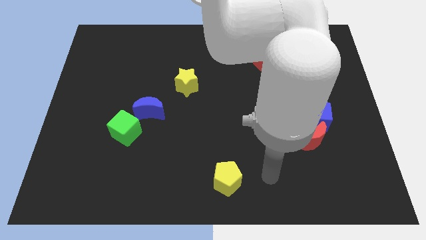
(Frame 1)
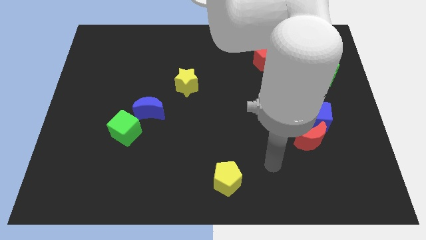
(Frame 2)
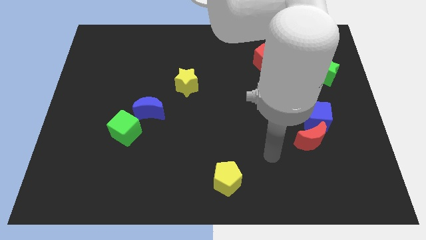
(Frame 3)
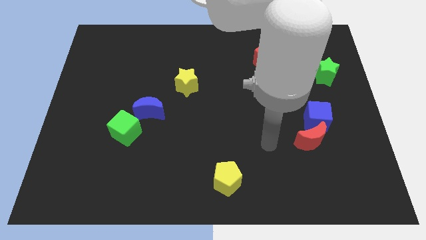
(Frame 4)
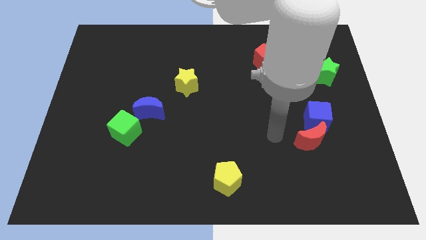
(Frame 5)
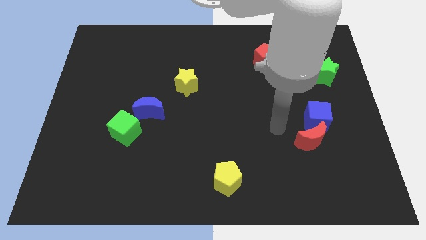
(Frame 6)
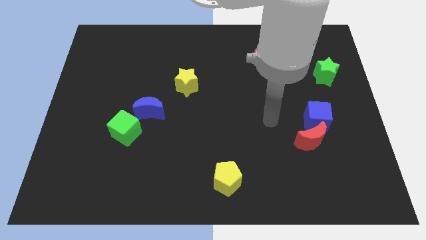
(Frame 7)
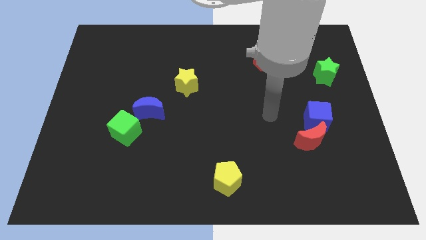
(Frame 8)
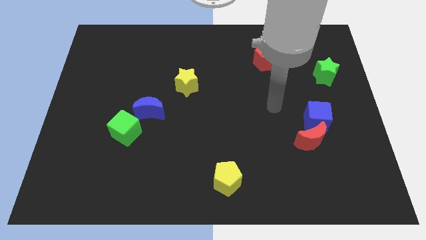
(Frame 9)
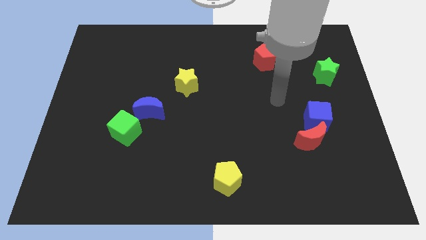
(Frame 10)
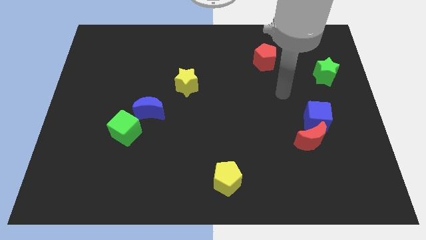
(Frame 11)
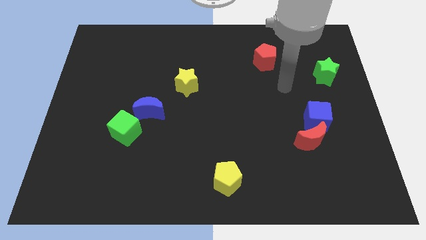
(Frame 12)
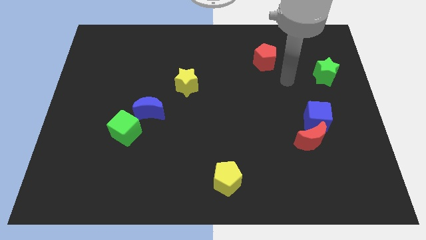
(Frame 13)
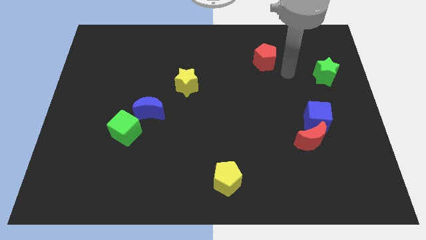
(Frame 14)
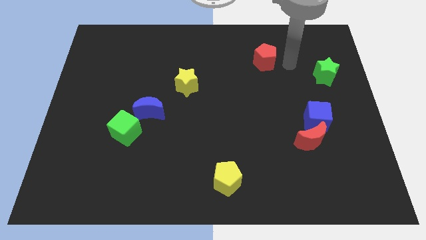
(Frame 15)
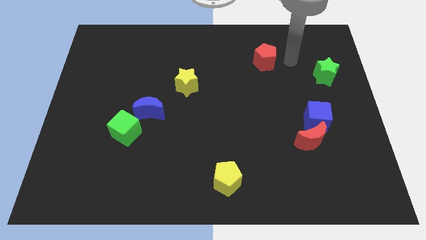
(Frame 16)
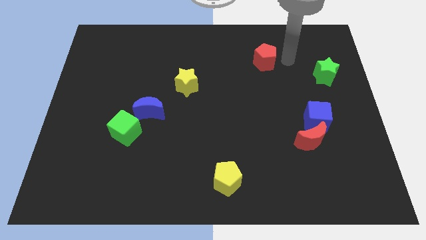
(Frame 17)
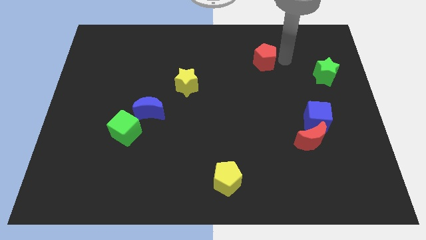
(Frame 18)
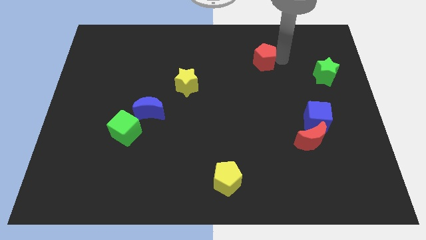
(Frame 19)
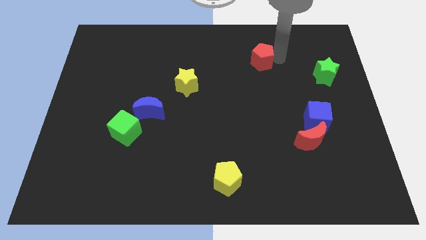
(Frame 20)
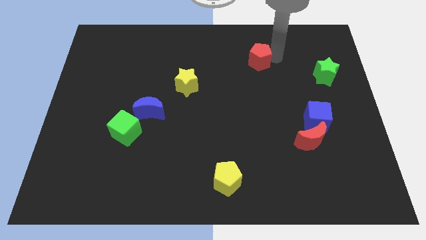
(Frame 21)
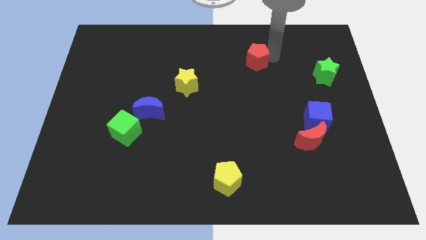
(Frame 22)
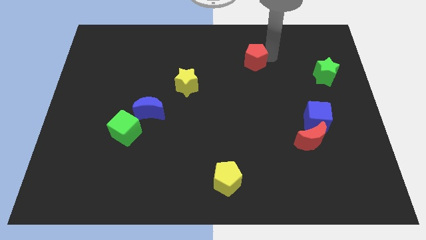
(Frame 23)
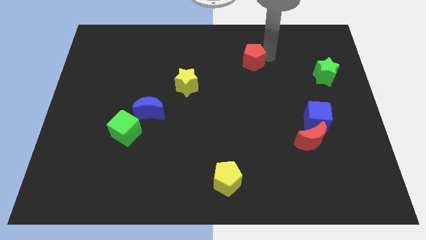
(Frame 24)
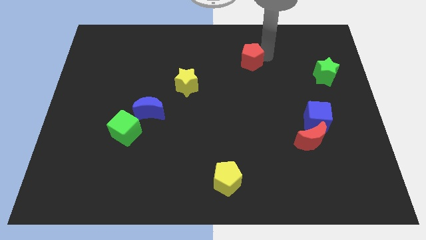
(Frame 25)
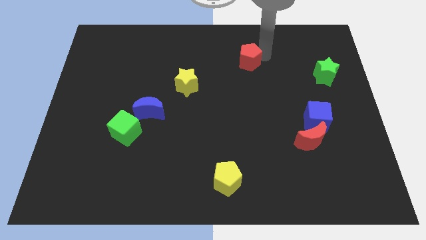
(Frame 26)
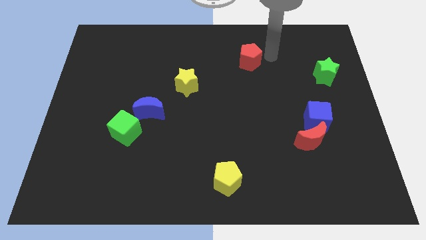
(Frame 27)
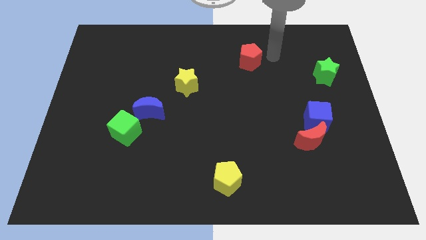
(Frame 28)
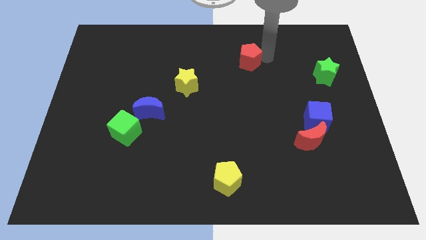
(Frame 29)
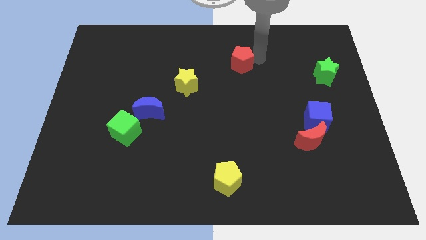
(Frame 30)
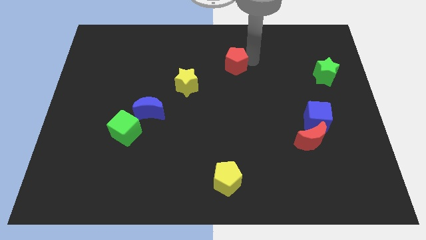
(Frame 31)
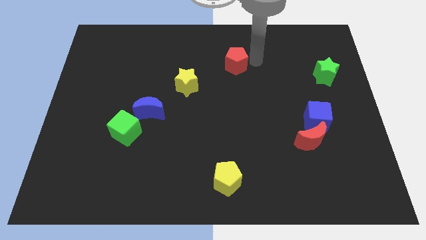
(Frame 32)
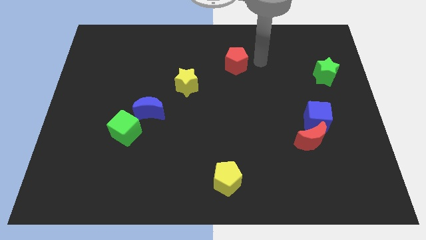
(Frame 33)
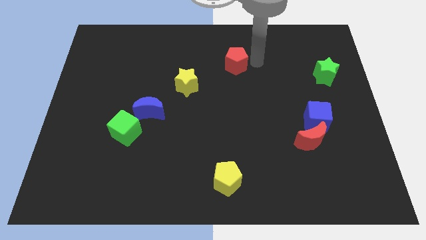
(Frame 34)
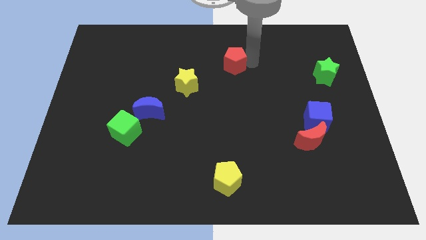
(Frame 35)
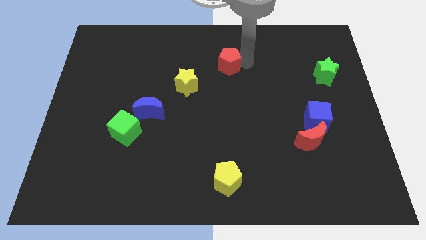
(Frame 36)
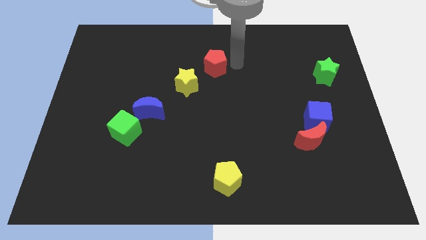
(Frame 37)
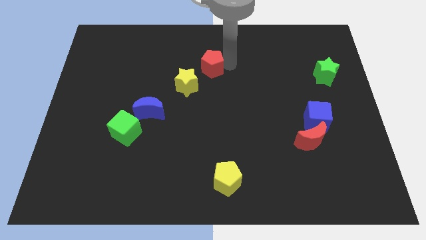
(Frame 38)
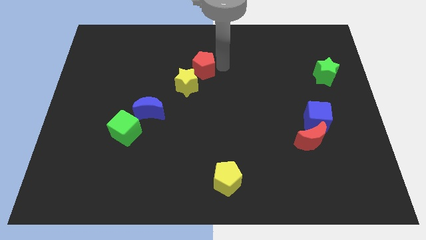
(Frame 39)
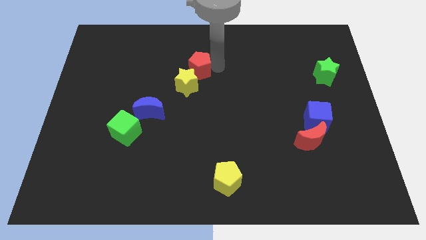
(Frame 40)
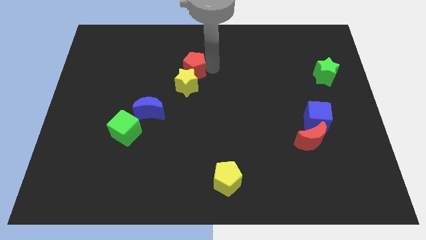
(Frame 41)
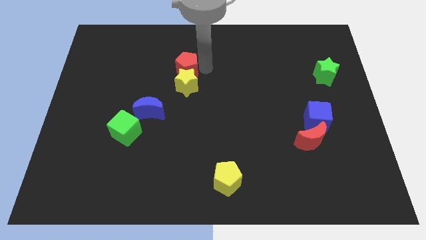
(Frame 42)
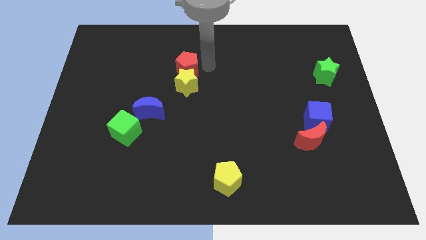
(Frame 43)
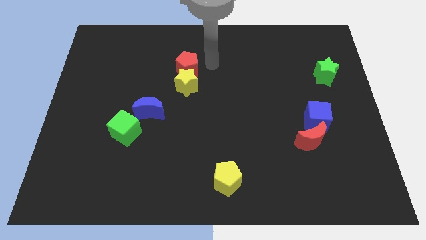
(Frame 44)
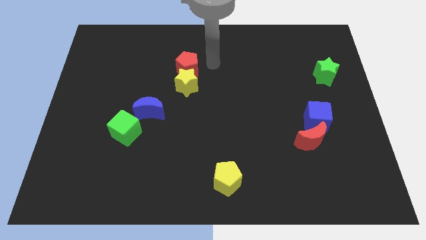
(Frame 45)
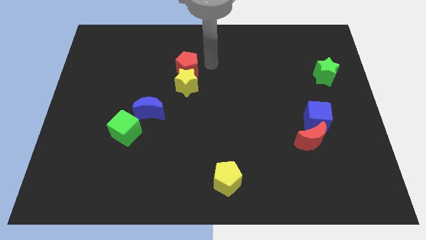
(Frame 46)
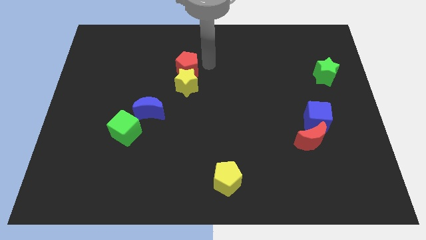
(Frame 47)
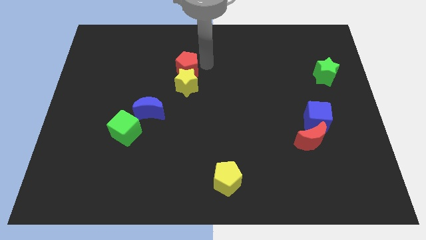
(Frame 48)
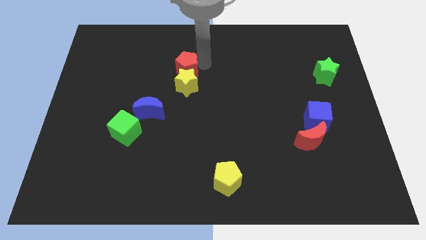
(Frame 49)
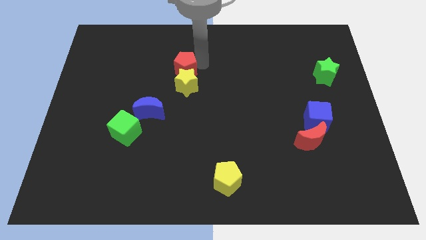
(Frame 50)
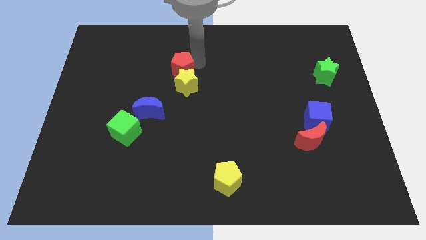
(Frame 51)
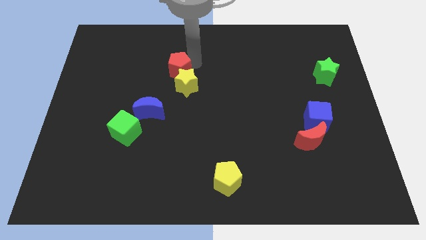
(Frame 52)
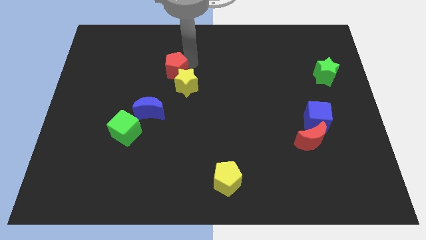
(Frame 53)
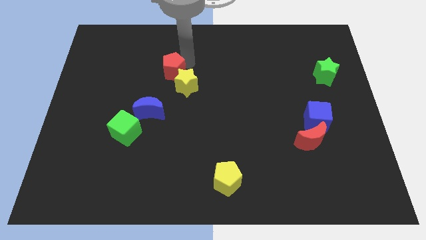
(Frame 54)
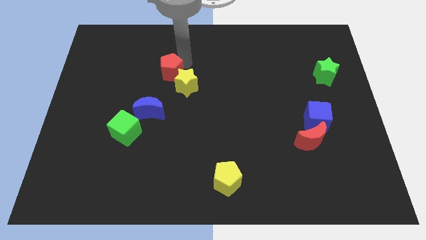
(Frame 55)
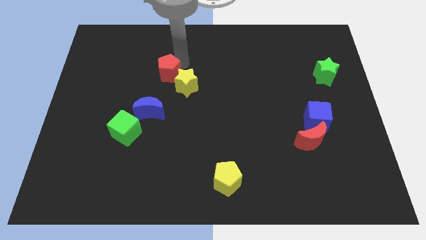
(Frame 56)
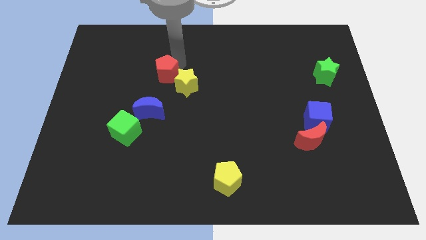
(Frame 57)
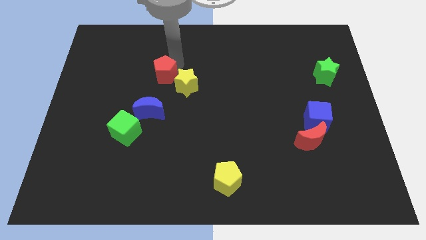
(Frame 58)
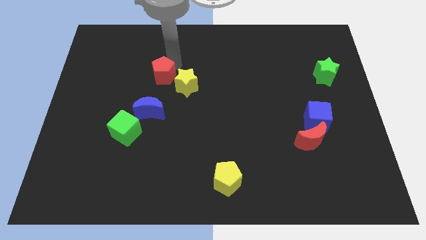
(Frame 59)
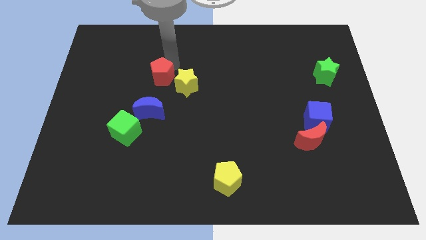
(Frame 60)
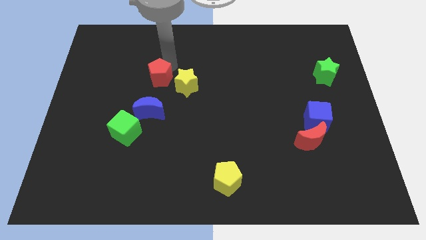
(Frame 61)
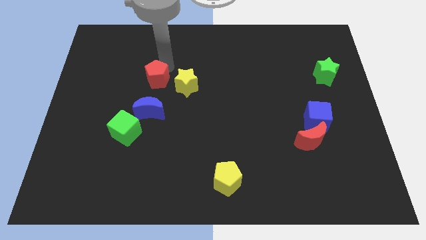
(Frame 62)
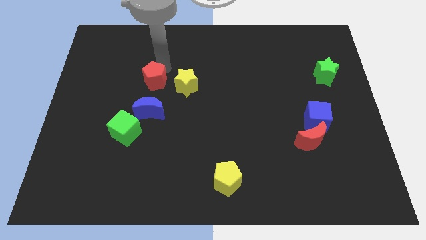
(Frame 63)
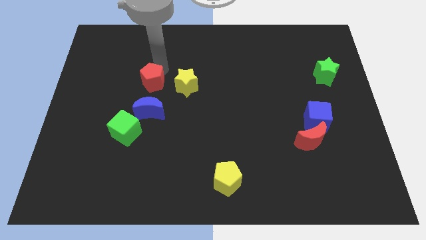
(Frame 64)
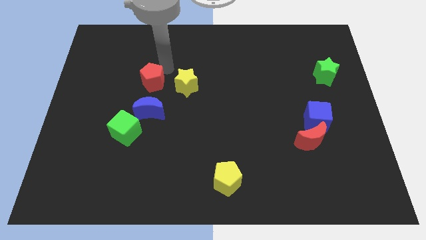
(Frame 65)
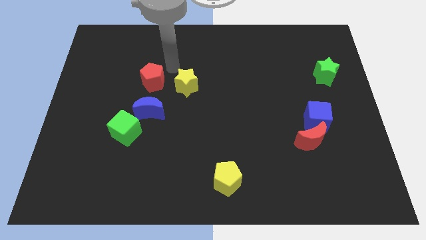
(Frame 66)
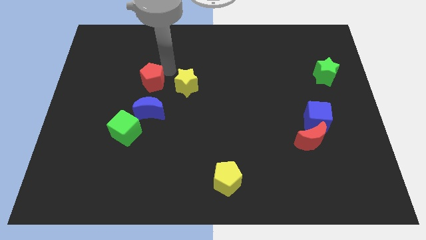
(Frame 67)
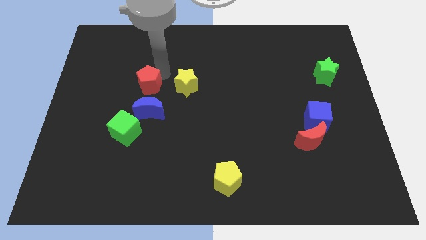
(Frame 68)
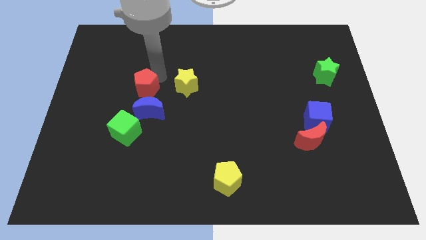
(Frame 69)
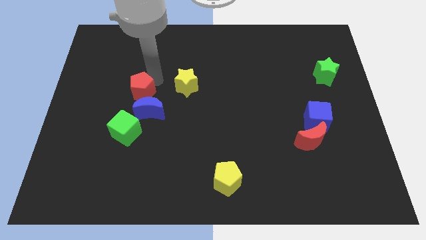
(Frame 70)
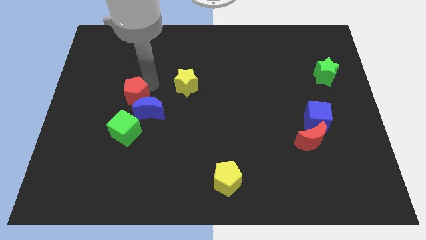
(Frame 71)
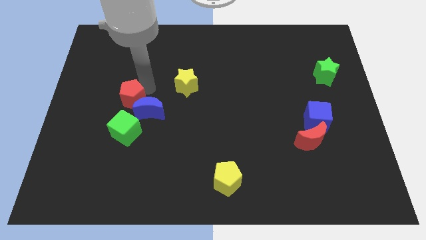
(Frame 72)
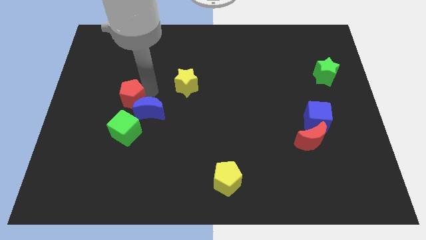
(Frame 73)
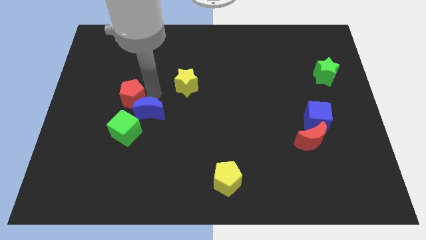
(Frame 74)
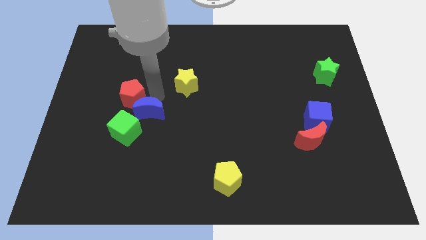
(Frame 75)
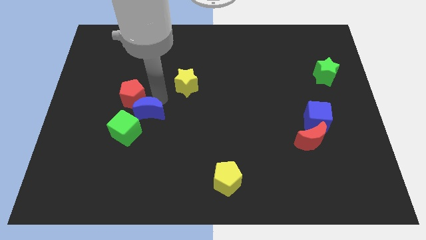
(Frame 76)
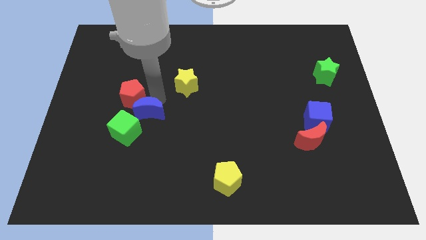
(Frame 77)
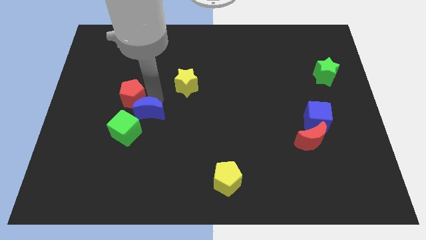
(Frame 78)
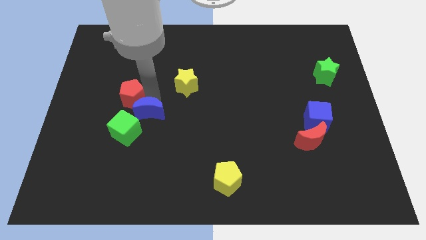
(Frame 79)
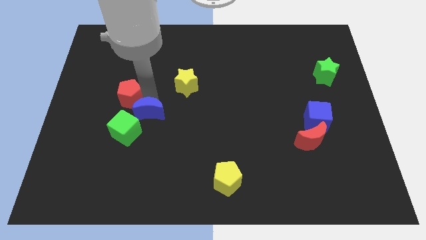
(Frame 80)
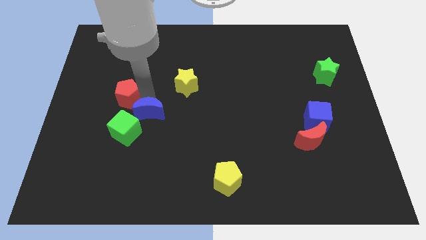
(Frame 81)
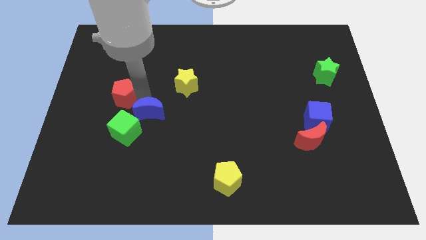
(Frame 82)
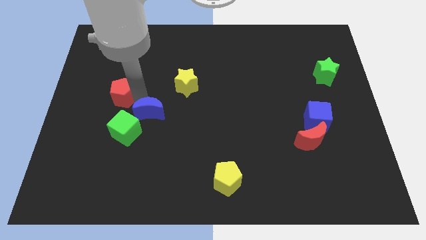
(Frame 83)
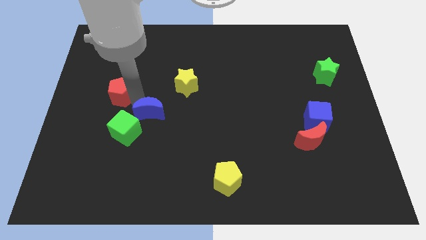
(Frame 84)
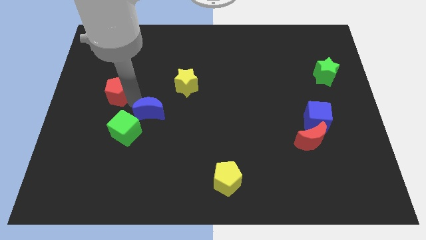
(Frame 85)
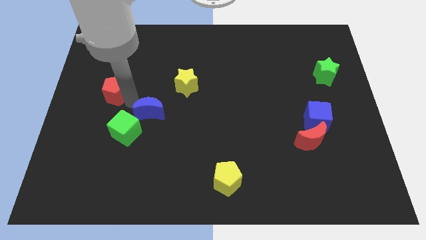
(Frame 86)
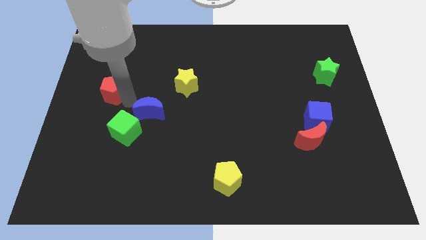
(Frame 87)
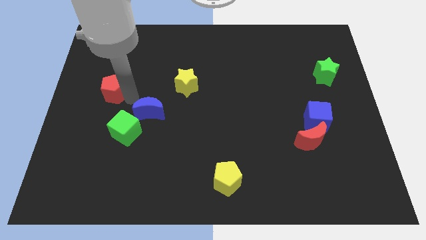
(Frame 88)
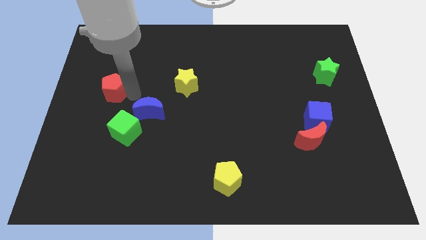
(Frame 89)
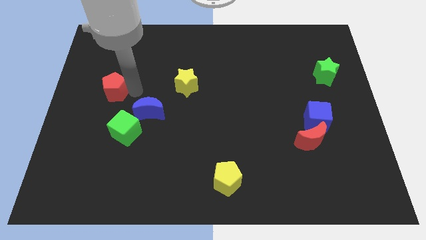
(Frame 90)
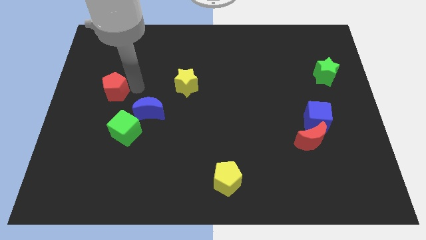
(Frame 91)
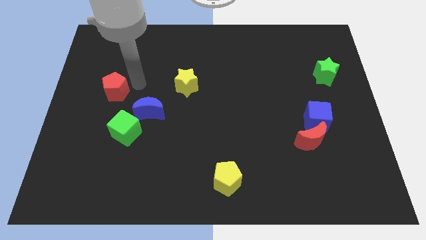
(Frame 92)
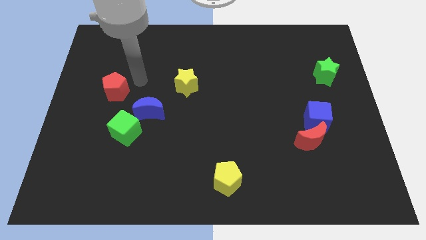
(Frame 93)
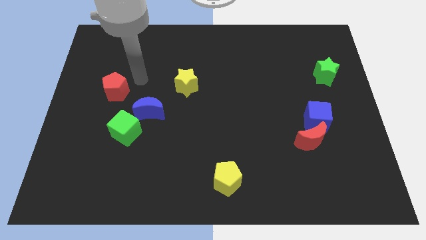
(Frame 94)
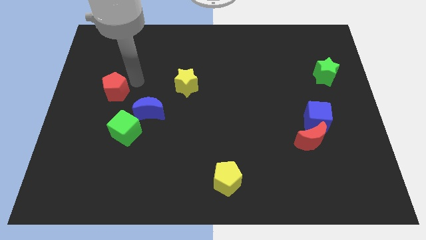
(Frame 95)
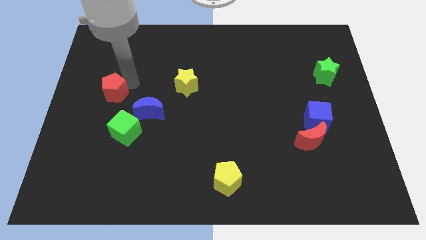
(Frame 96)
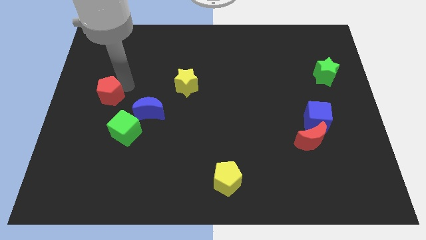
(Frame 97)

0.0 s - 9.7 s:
push the red pentagon to the center left
